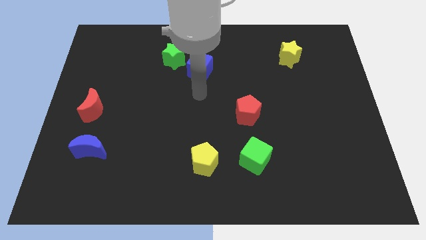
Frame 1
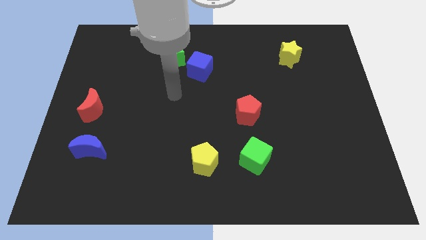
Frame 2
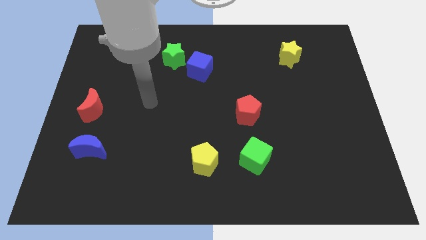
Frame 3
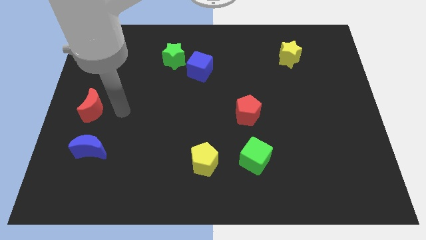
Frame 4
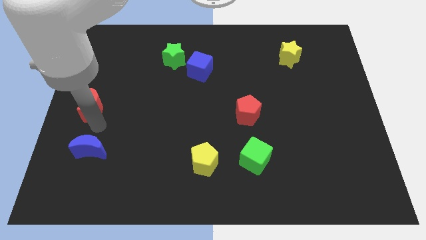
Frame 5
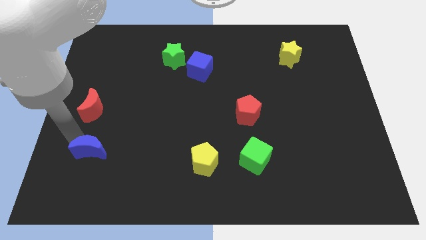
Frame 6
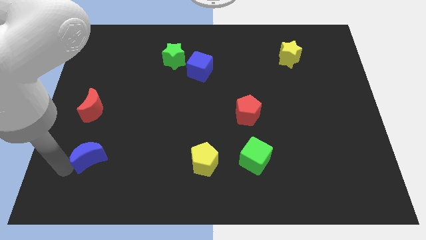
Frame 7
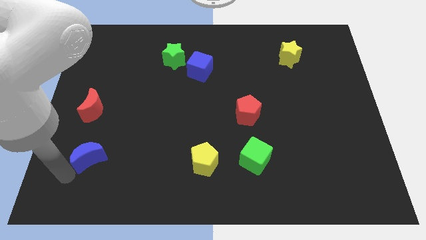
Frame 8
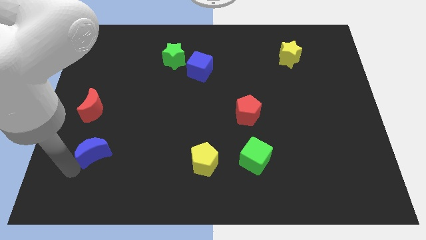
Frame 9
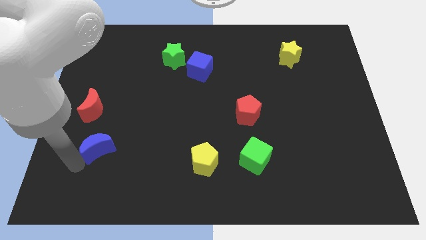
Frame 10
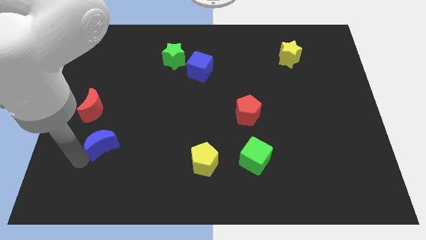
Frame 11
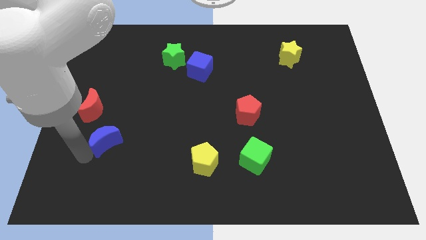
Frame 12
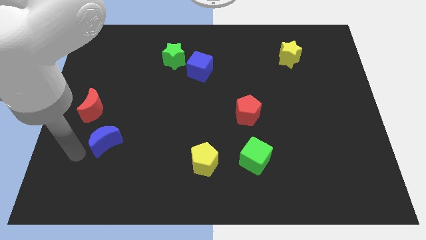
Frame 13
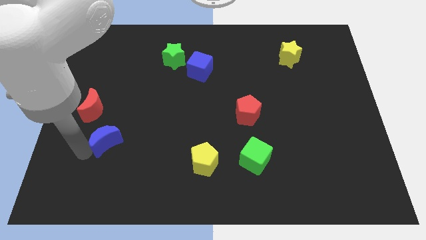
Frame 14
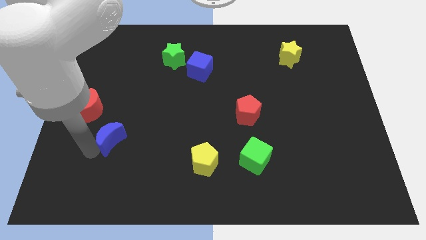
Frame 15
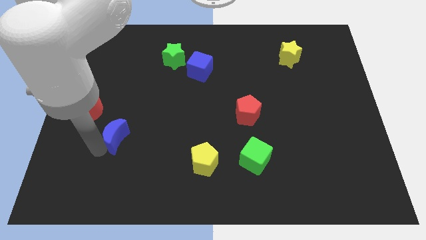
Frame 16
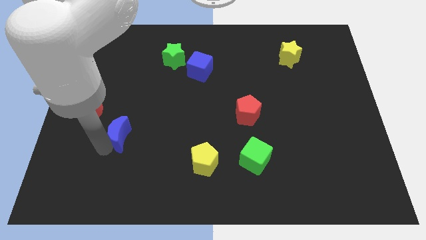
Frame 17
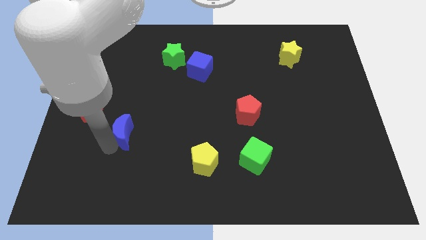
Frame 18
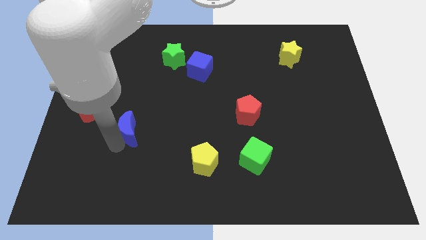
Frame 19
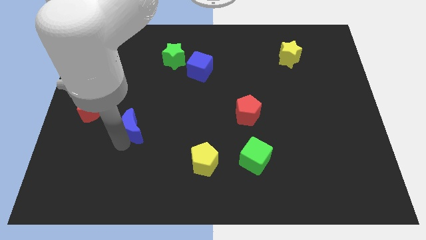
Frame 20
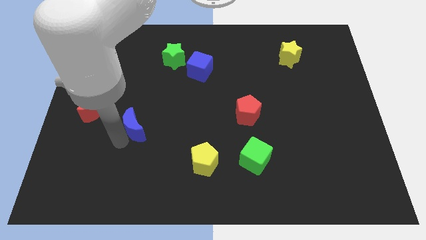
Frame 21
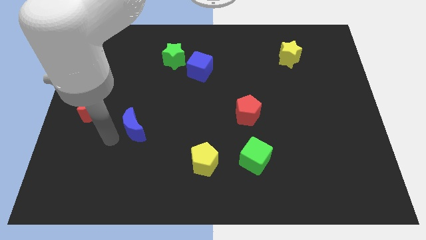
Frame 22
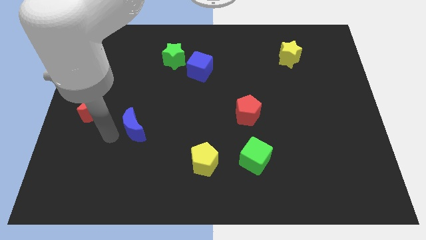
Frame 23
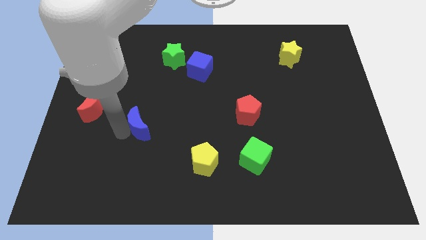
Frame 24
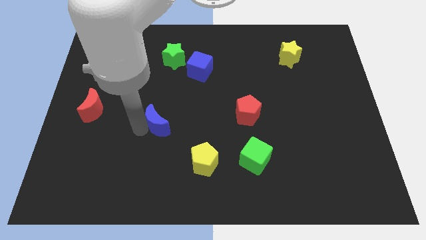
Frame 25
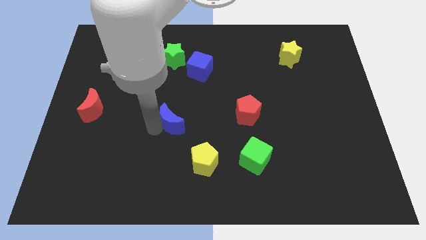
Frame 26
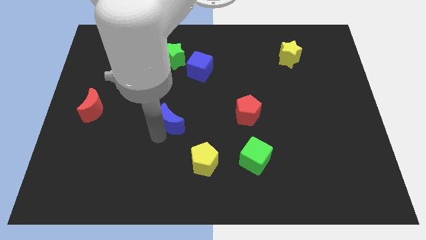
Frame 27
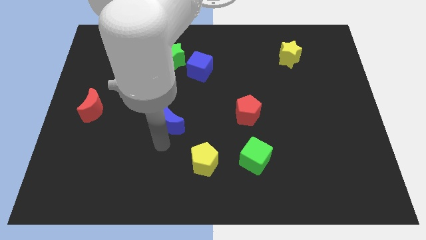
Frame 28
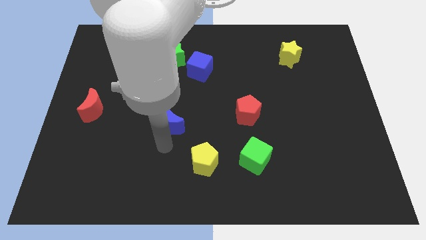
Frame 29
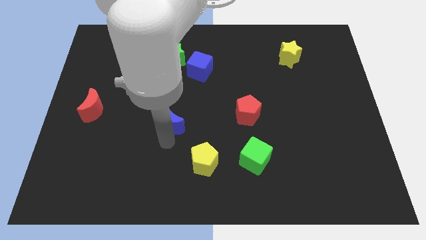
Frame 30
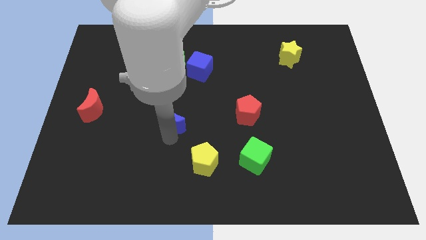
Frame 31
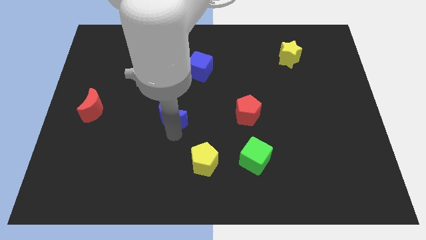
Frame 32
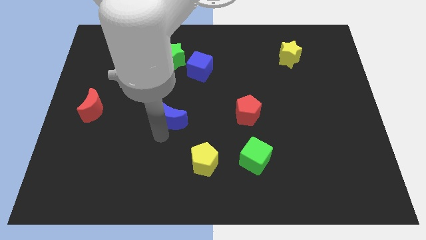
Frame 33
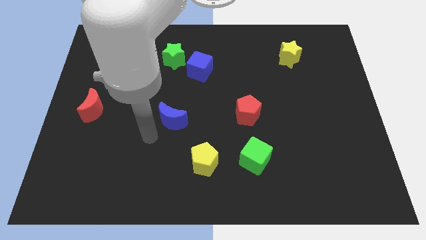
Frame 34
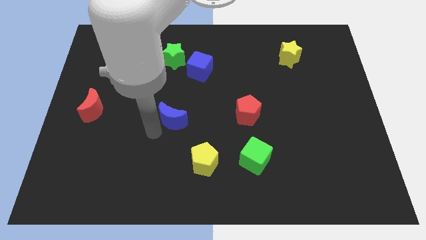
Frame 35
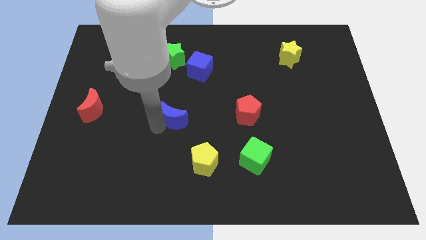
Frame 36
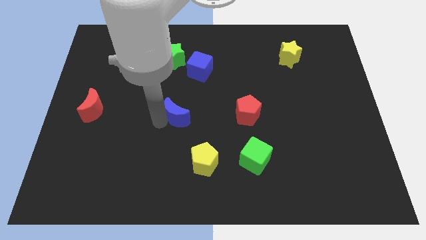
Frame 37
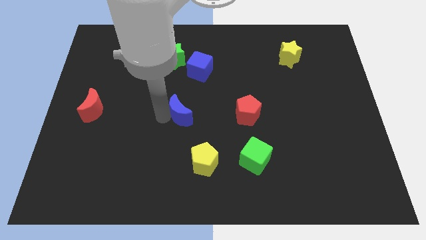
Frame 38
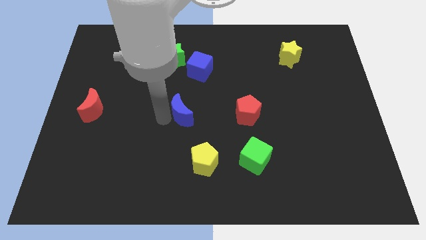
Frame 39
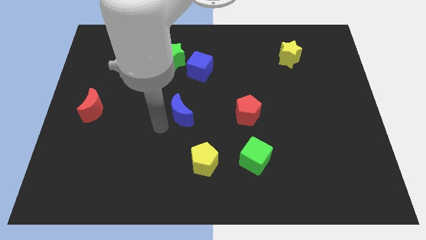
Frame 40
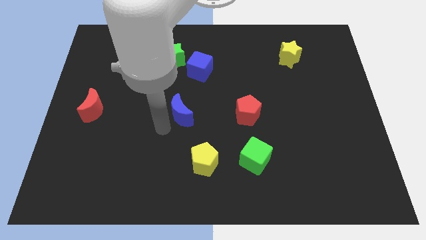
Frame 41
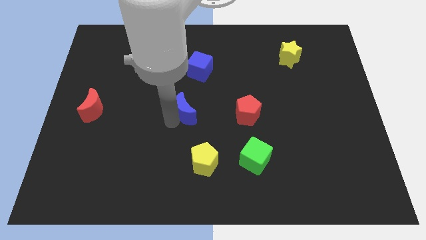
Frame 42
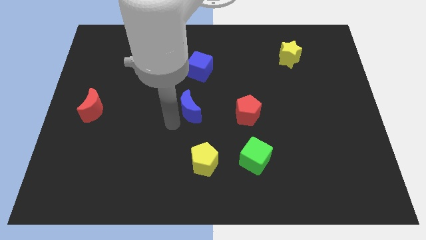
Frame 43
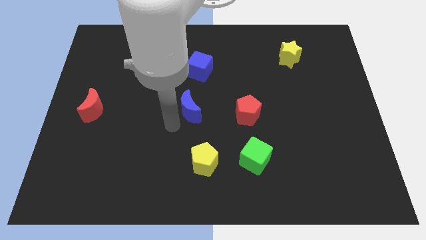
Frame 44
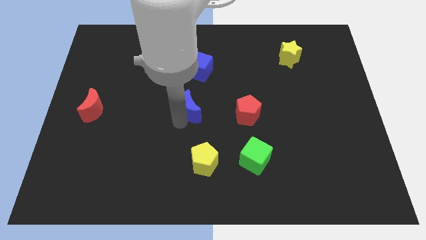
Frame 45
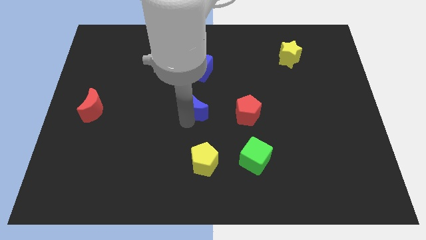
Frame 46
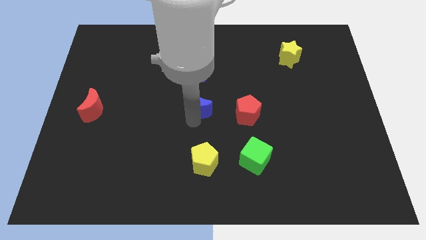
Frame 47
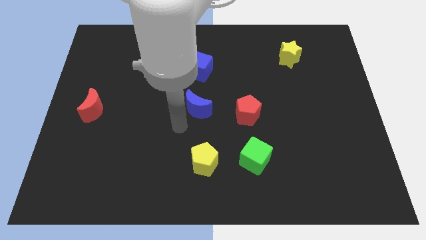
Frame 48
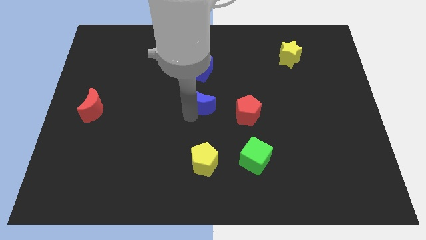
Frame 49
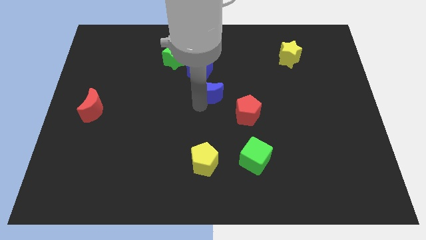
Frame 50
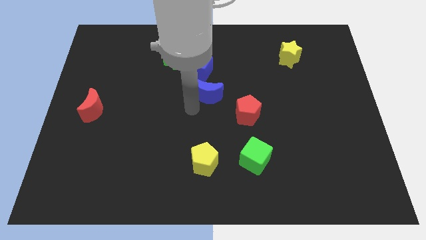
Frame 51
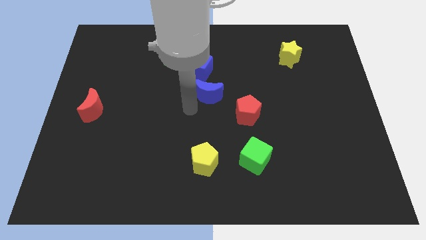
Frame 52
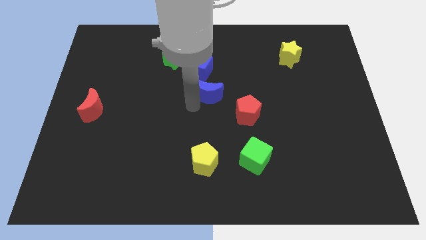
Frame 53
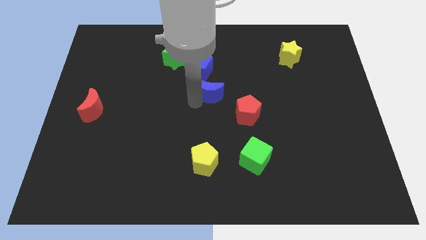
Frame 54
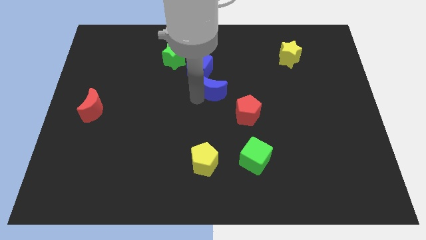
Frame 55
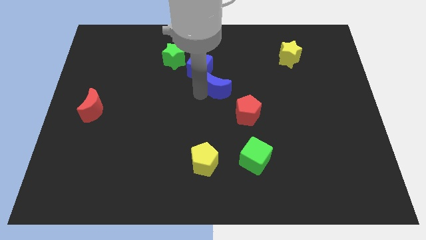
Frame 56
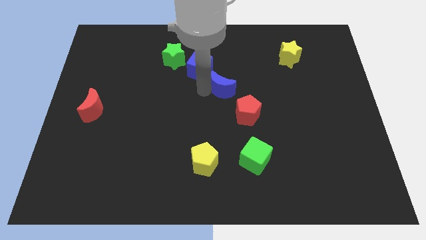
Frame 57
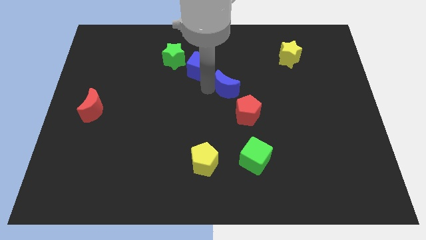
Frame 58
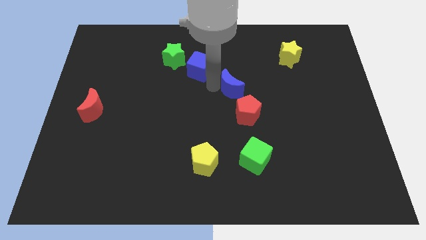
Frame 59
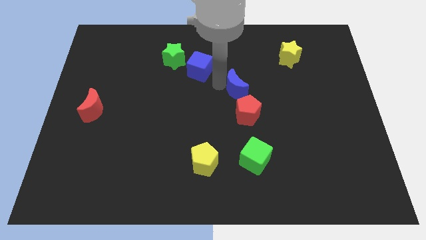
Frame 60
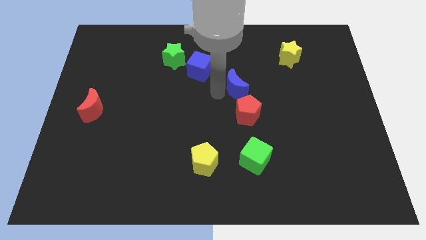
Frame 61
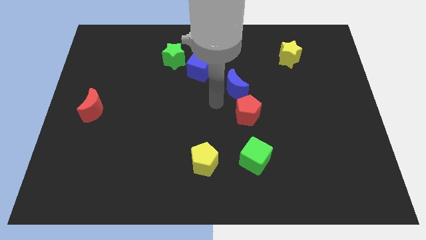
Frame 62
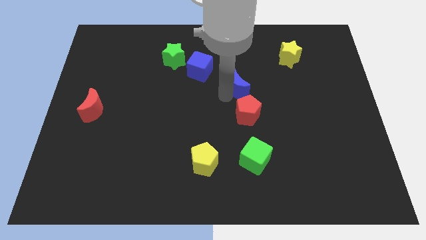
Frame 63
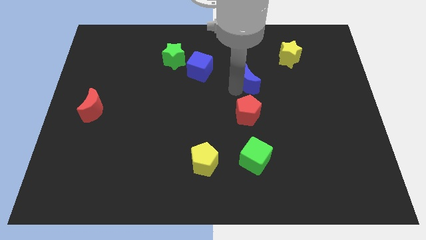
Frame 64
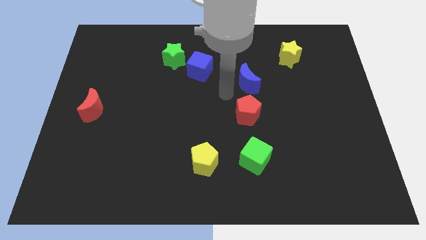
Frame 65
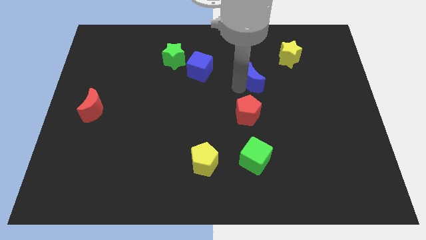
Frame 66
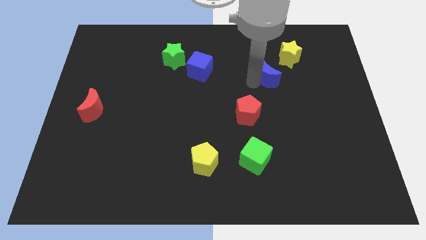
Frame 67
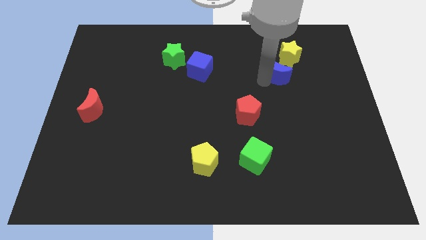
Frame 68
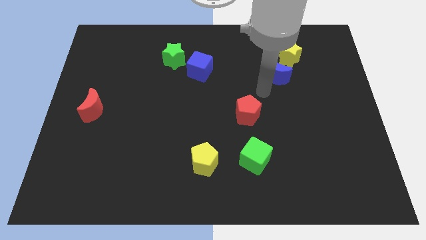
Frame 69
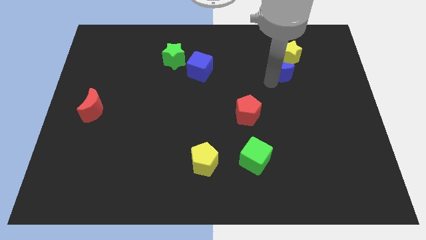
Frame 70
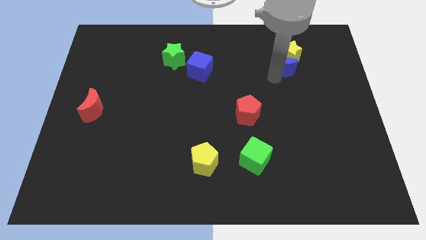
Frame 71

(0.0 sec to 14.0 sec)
put the blue moon to the yellow star
